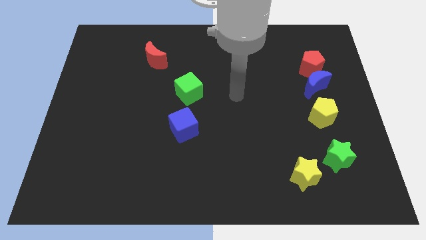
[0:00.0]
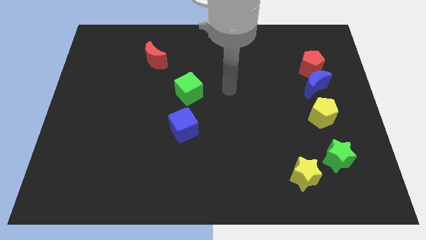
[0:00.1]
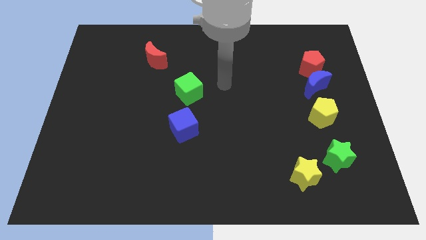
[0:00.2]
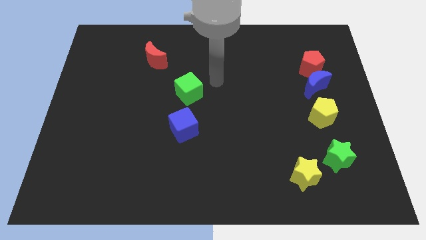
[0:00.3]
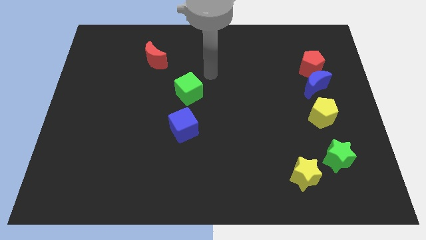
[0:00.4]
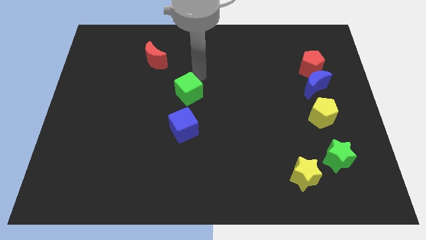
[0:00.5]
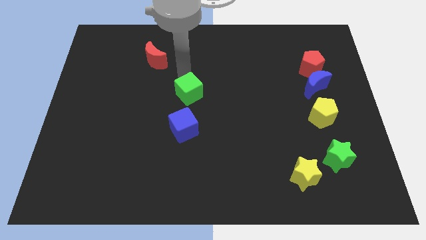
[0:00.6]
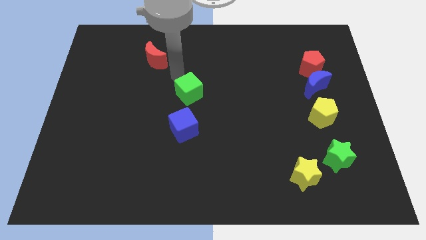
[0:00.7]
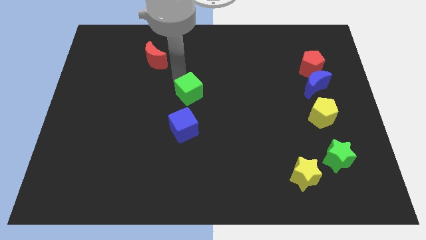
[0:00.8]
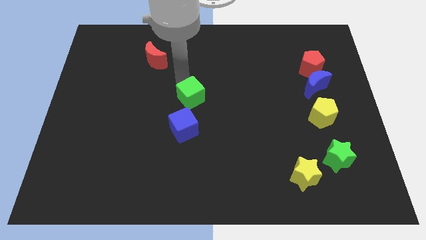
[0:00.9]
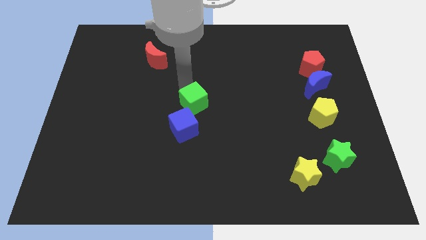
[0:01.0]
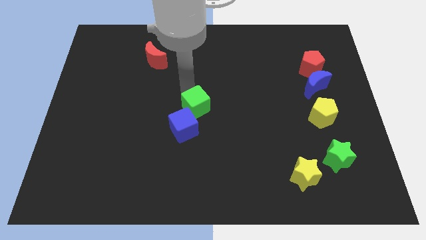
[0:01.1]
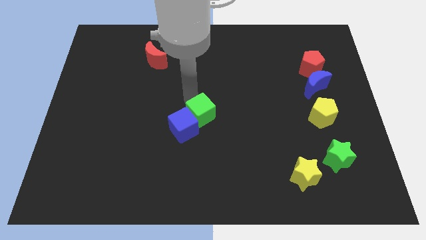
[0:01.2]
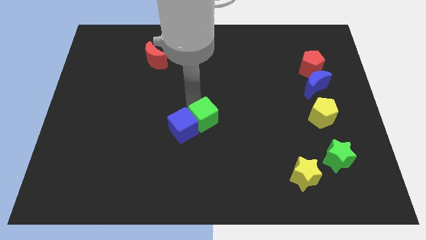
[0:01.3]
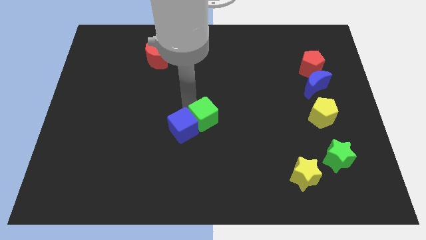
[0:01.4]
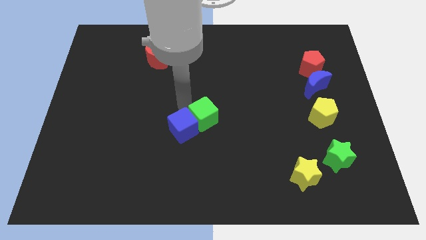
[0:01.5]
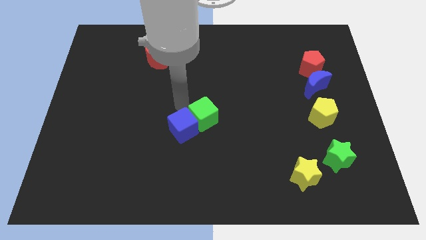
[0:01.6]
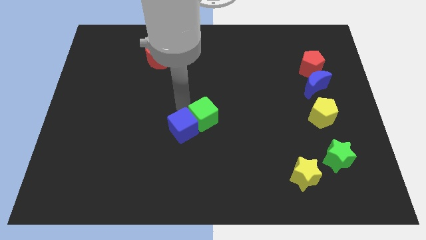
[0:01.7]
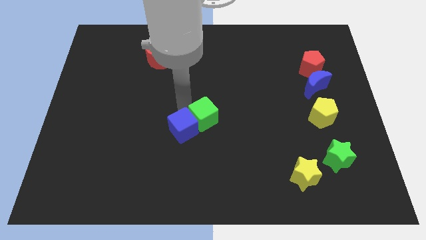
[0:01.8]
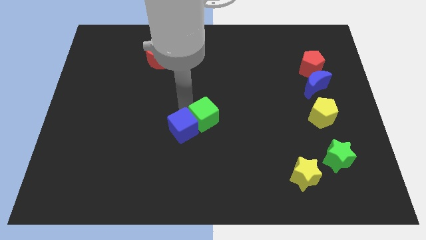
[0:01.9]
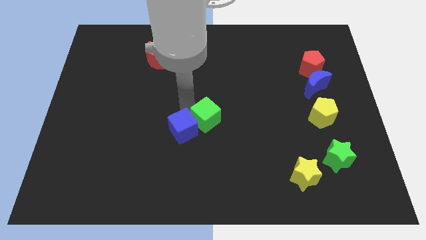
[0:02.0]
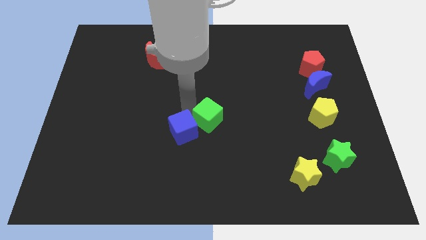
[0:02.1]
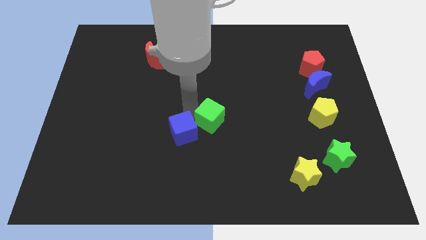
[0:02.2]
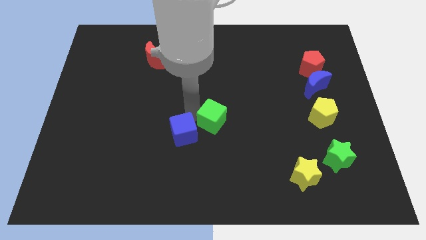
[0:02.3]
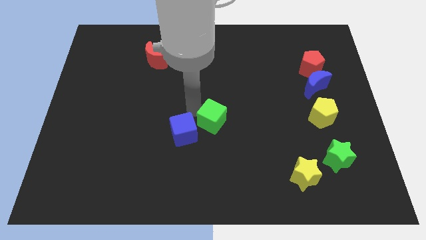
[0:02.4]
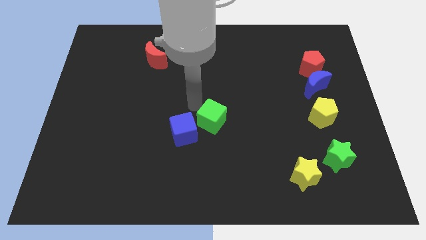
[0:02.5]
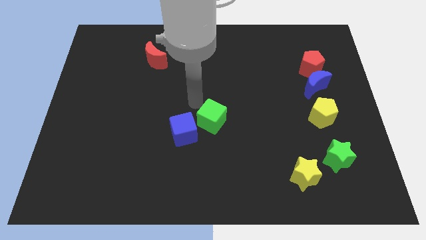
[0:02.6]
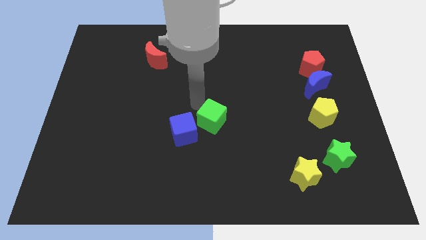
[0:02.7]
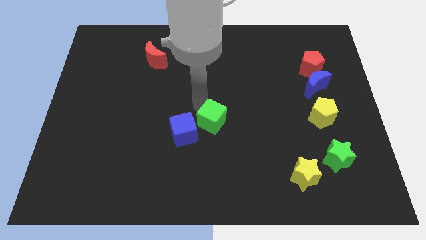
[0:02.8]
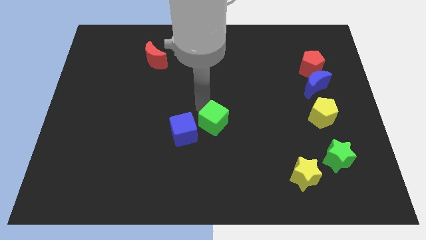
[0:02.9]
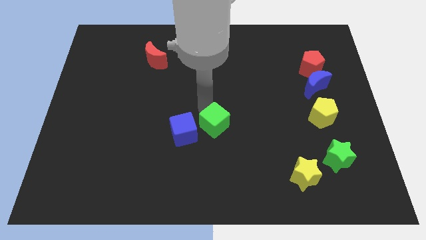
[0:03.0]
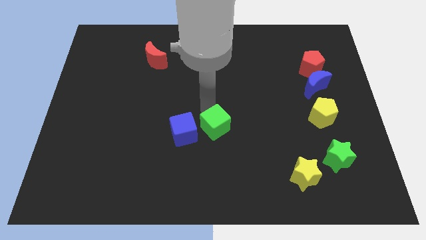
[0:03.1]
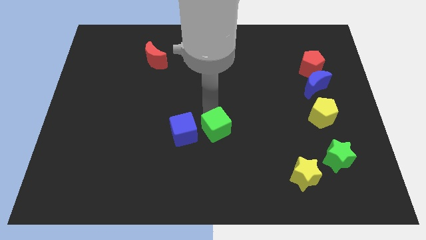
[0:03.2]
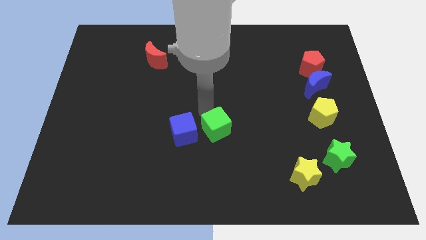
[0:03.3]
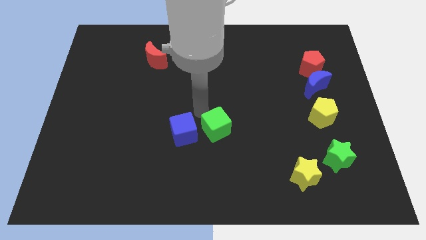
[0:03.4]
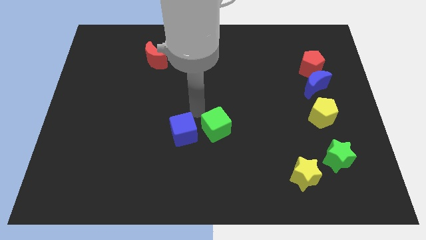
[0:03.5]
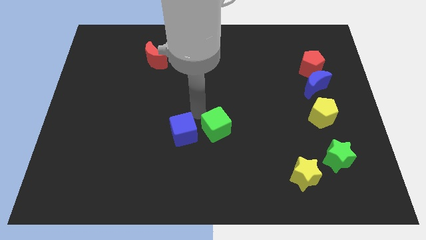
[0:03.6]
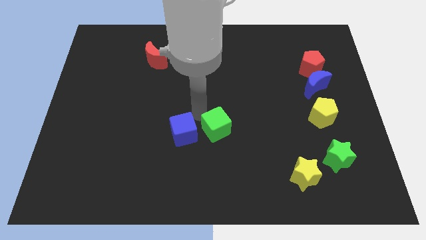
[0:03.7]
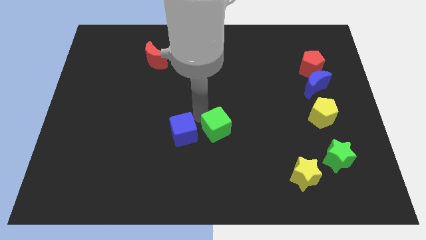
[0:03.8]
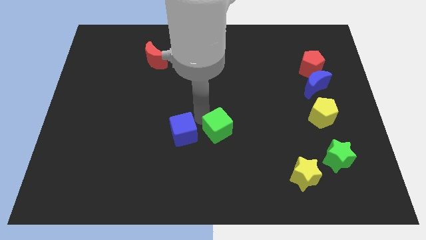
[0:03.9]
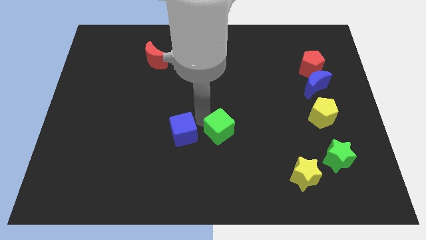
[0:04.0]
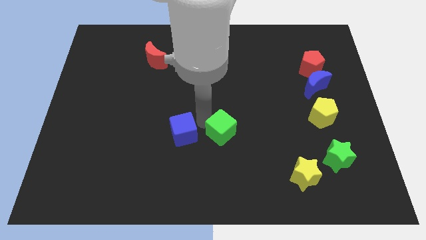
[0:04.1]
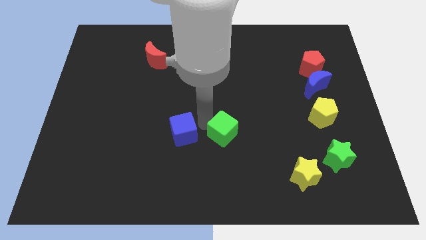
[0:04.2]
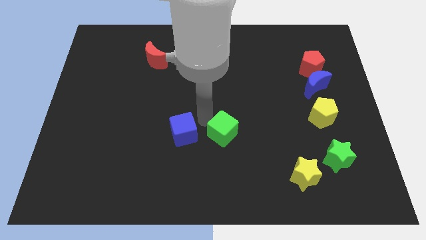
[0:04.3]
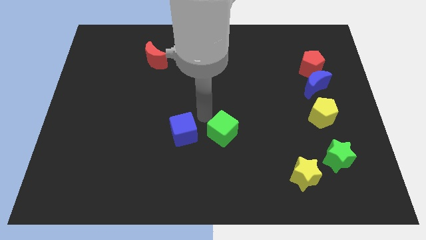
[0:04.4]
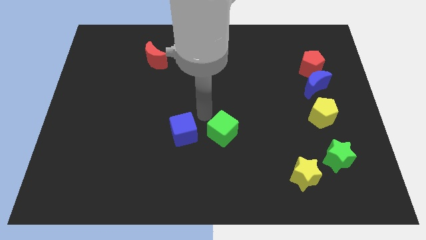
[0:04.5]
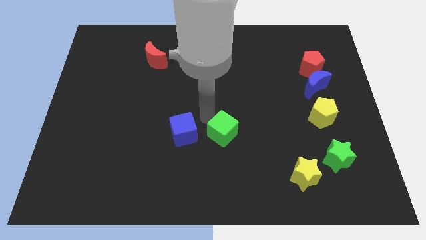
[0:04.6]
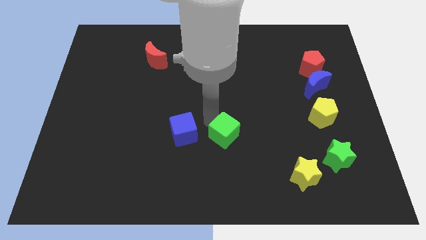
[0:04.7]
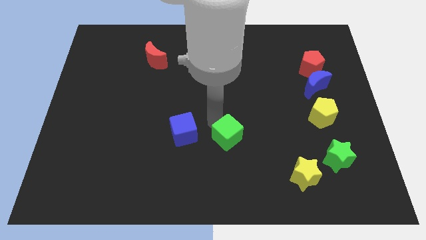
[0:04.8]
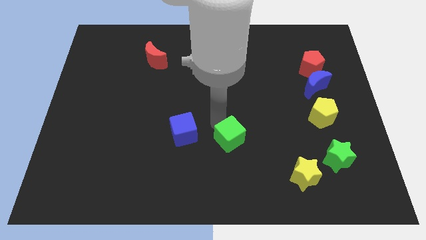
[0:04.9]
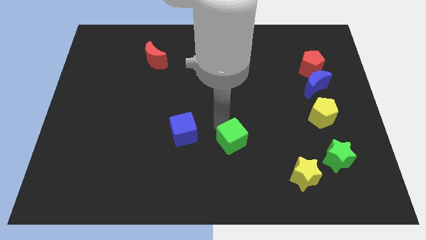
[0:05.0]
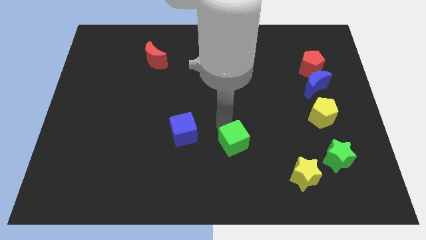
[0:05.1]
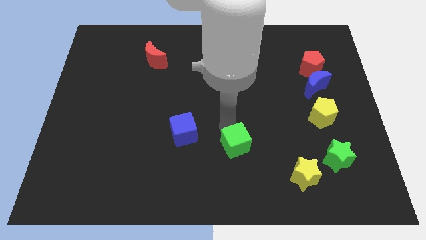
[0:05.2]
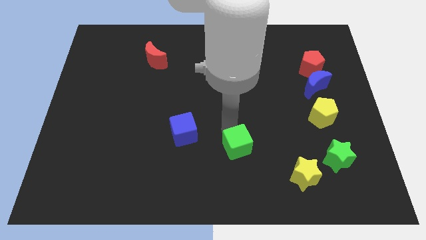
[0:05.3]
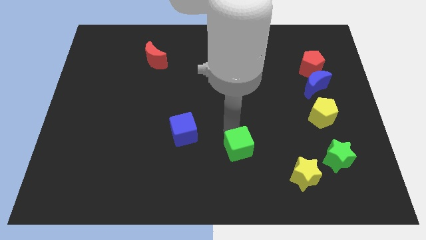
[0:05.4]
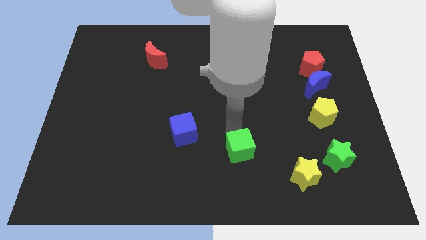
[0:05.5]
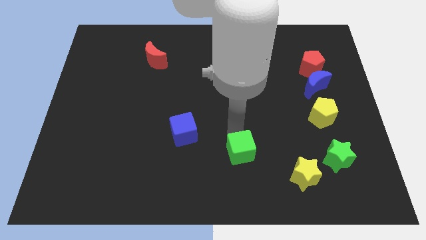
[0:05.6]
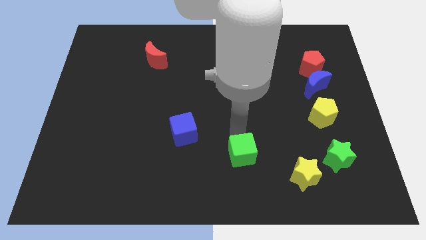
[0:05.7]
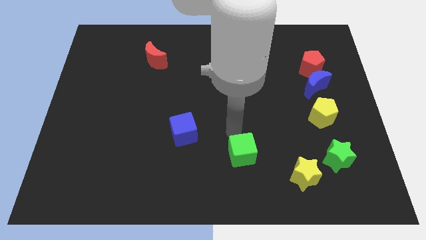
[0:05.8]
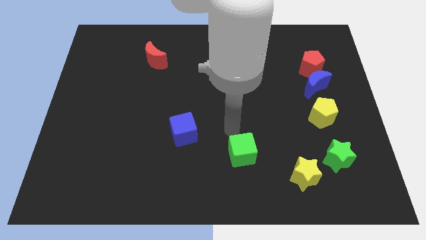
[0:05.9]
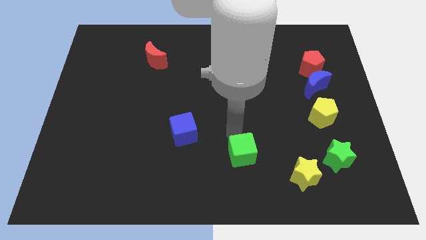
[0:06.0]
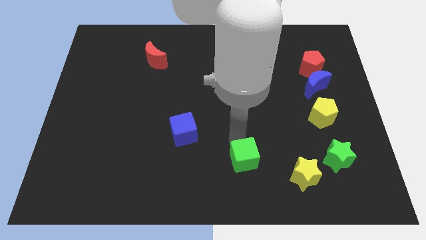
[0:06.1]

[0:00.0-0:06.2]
push the green cube just left of the yellow star

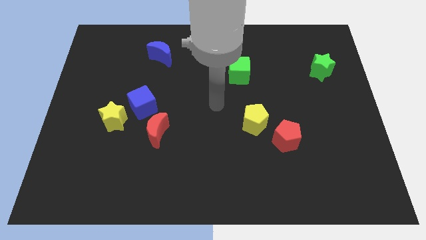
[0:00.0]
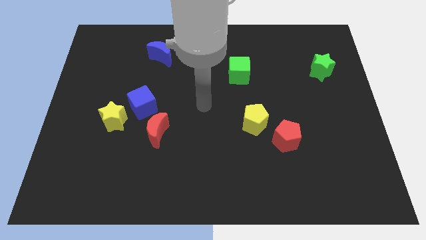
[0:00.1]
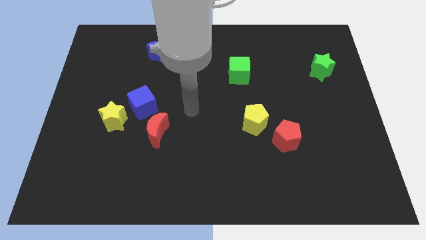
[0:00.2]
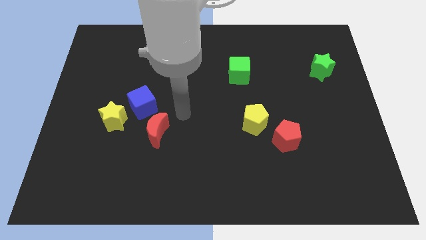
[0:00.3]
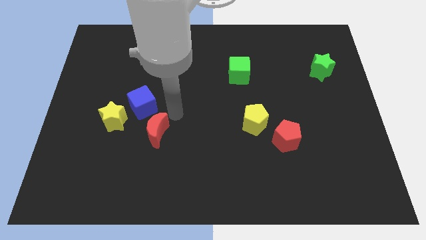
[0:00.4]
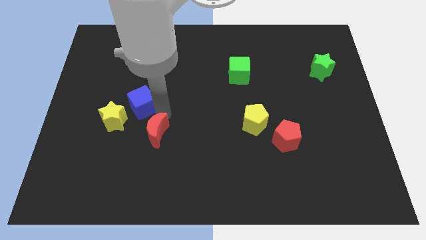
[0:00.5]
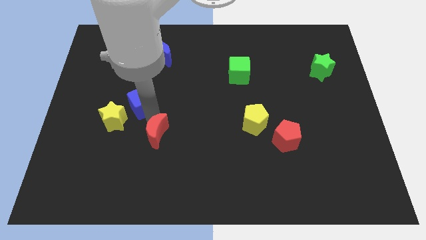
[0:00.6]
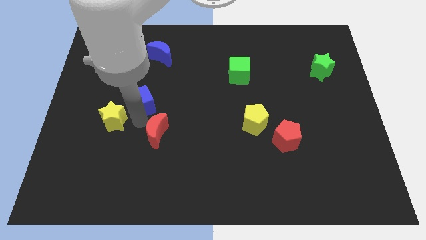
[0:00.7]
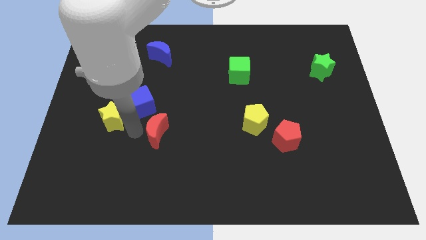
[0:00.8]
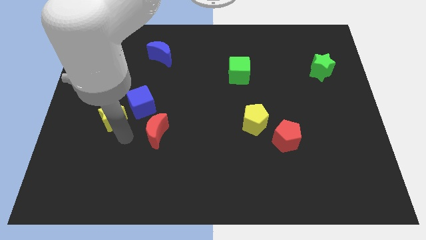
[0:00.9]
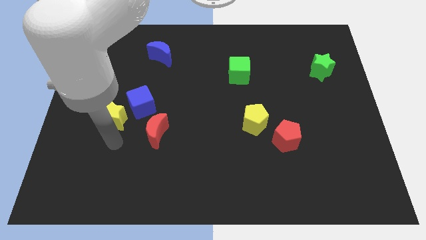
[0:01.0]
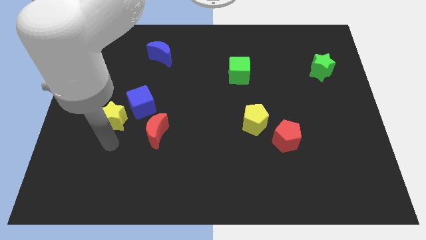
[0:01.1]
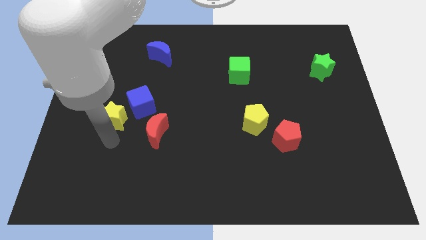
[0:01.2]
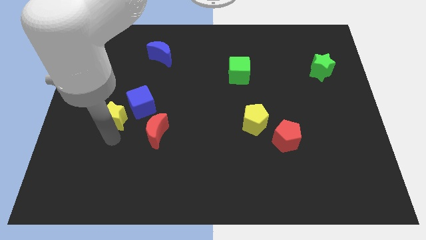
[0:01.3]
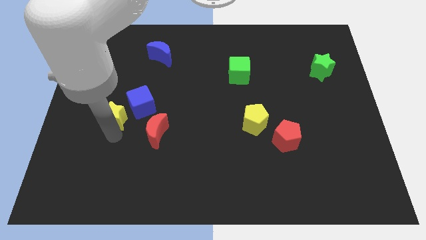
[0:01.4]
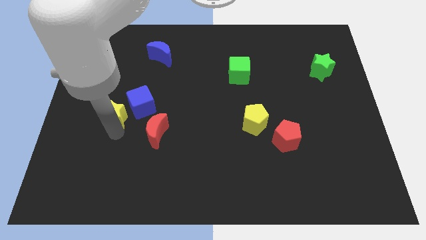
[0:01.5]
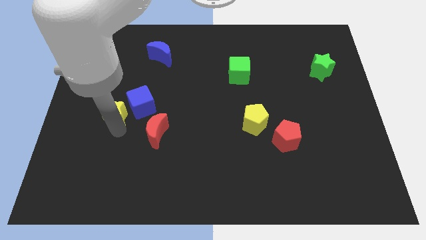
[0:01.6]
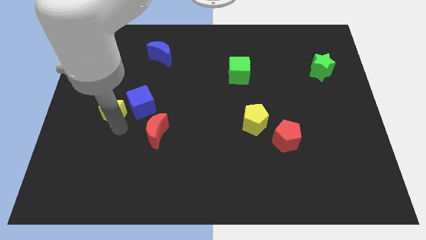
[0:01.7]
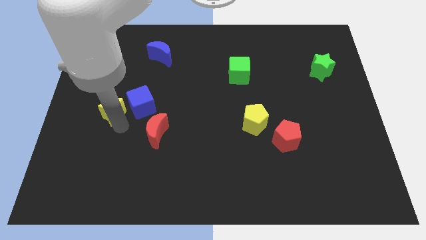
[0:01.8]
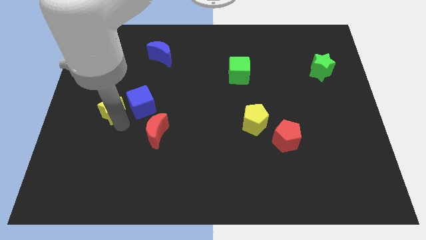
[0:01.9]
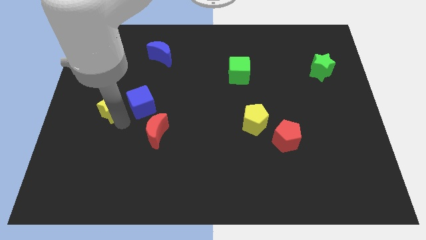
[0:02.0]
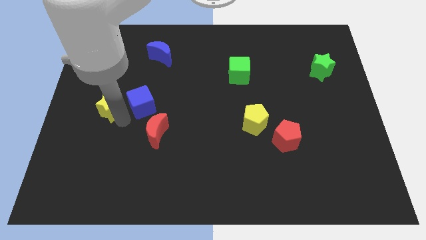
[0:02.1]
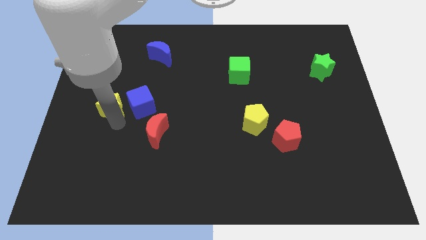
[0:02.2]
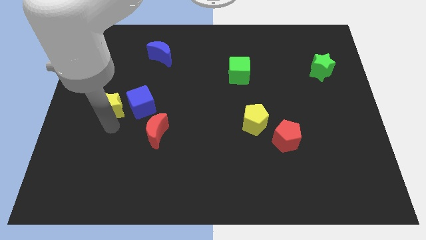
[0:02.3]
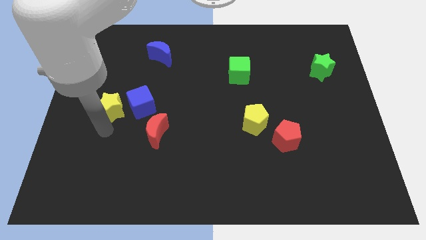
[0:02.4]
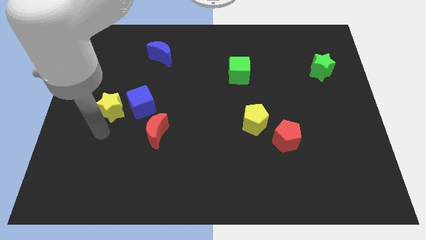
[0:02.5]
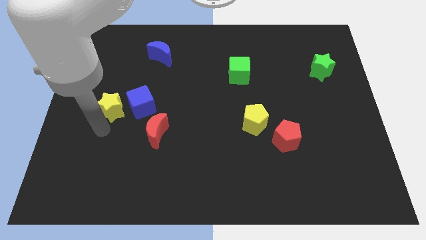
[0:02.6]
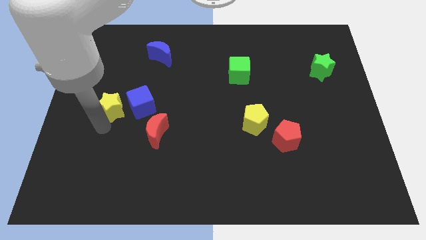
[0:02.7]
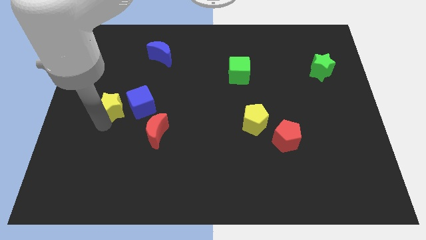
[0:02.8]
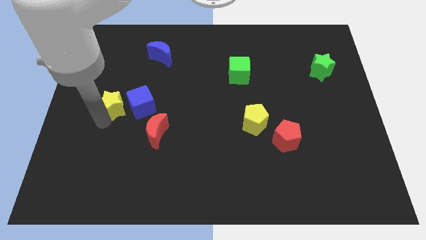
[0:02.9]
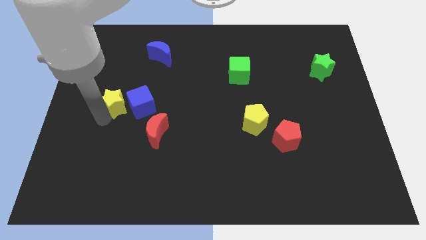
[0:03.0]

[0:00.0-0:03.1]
push the yellow star diagonally up and to the left of the blue cube
